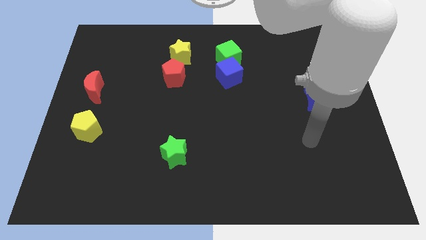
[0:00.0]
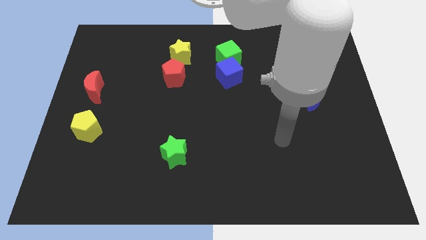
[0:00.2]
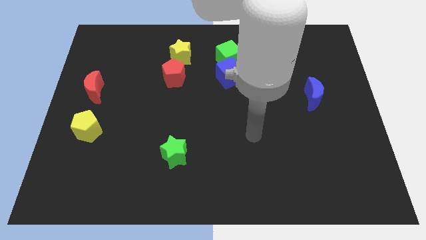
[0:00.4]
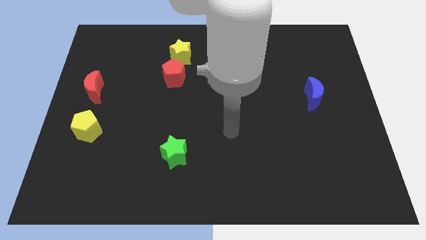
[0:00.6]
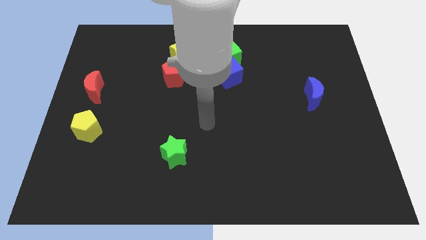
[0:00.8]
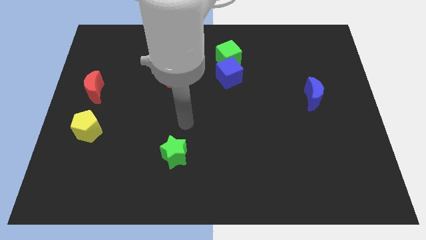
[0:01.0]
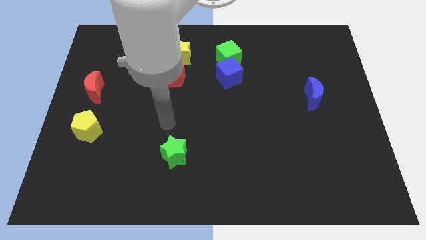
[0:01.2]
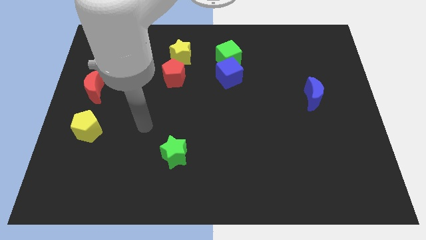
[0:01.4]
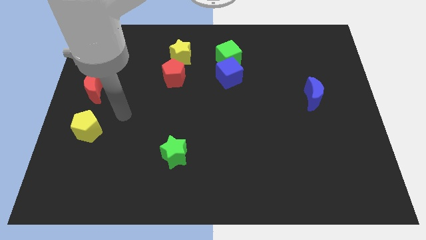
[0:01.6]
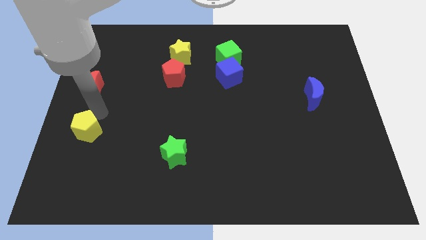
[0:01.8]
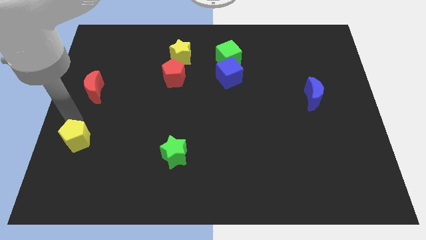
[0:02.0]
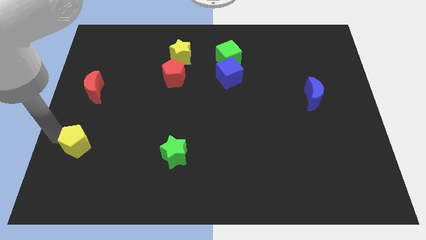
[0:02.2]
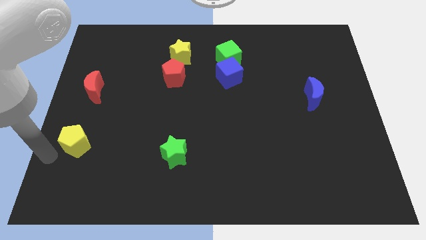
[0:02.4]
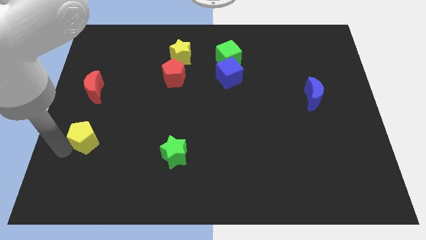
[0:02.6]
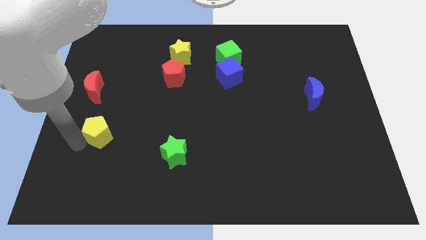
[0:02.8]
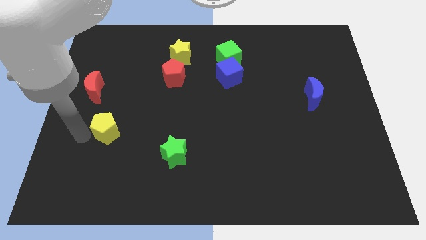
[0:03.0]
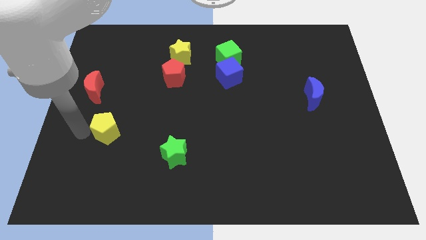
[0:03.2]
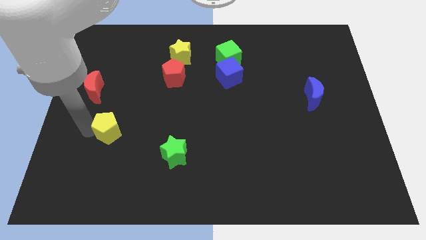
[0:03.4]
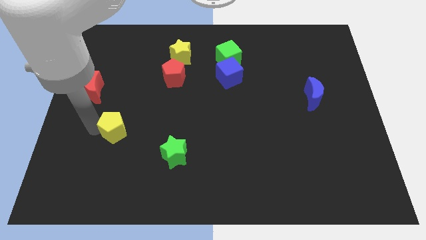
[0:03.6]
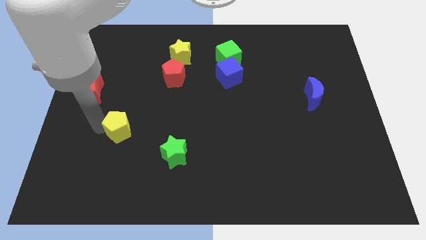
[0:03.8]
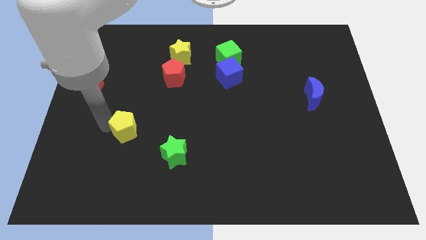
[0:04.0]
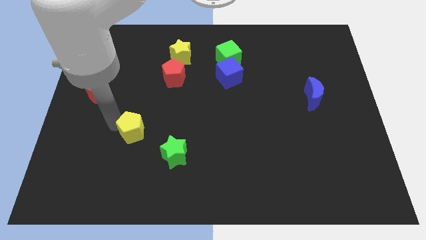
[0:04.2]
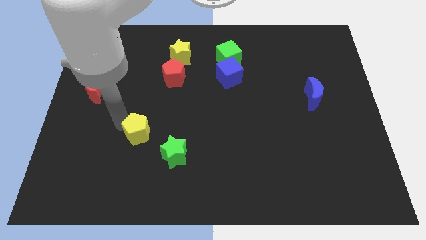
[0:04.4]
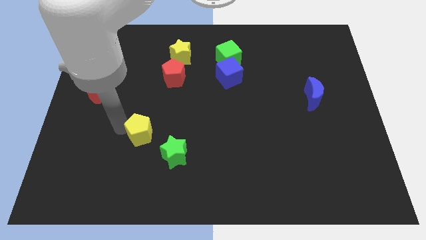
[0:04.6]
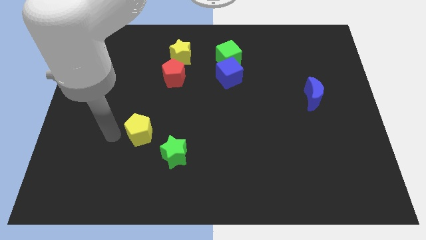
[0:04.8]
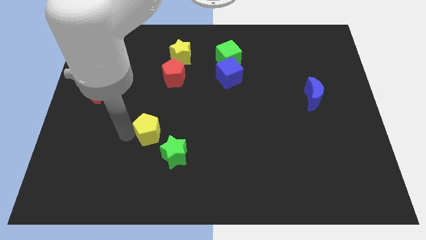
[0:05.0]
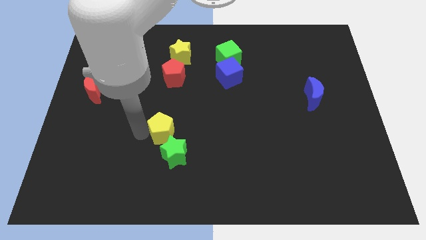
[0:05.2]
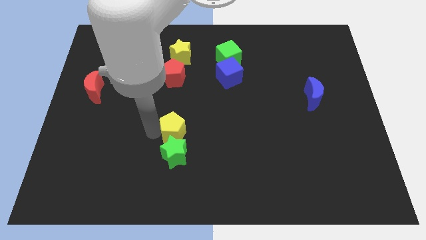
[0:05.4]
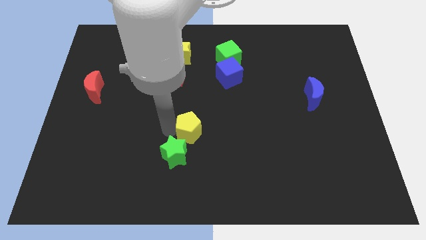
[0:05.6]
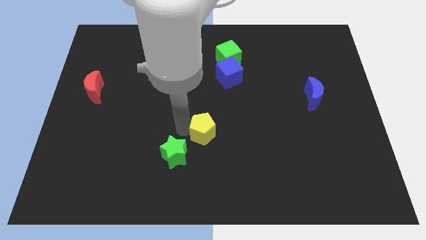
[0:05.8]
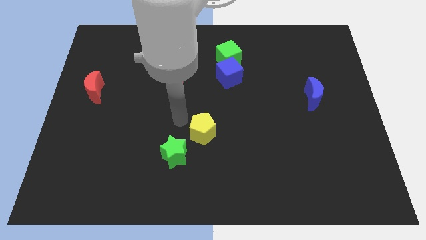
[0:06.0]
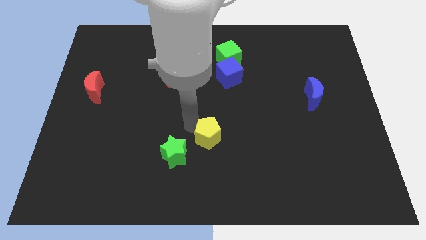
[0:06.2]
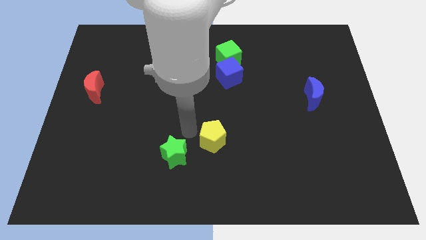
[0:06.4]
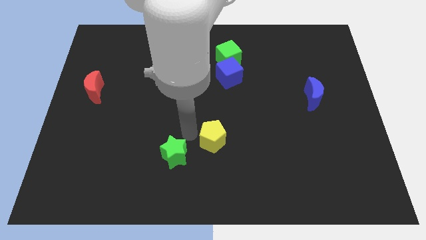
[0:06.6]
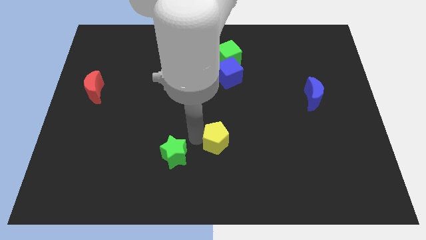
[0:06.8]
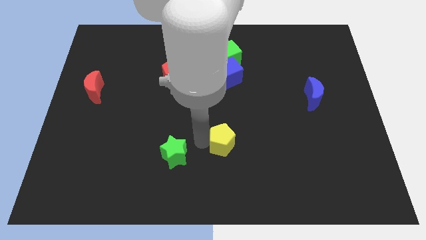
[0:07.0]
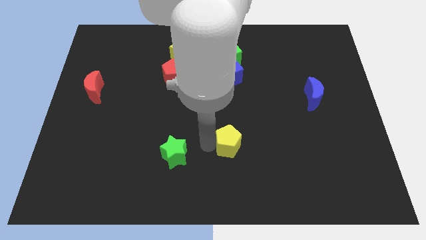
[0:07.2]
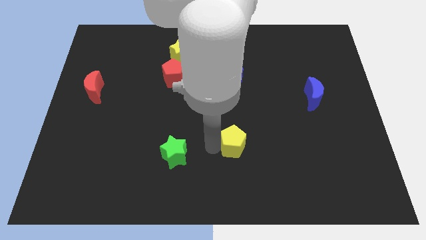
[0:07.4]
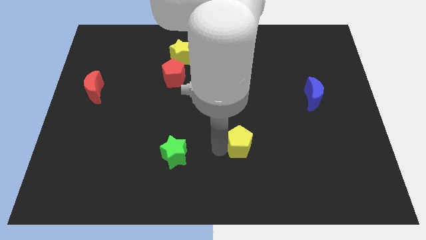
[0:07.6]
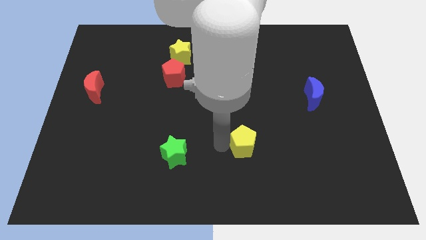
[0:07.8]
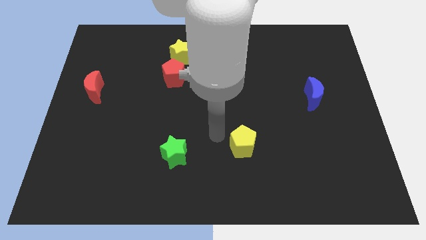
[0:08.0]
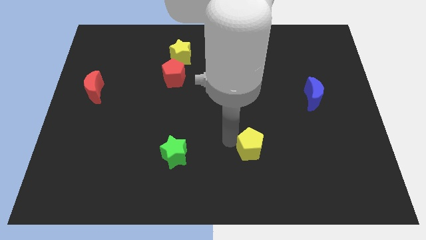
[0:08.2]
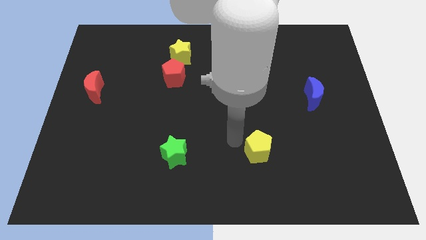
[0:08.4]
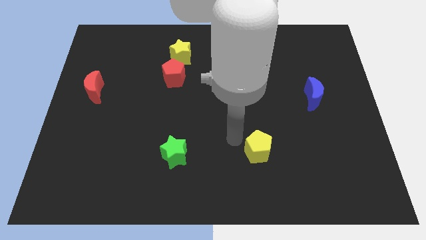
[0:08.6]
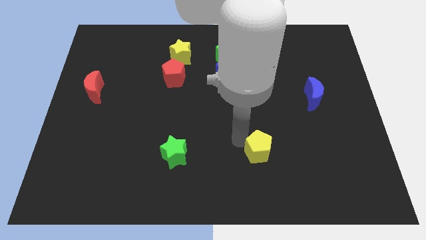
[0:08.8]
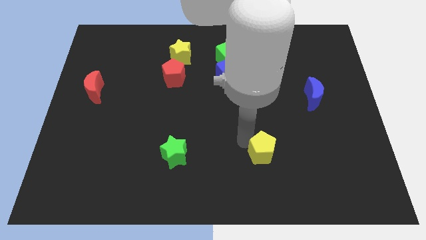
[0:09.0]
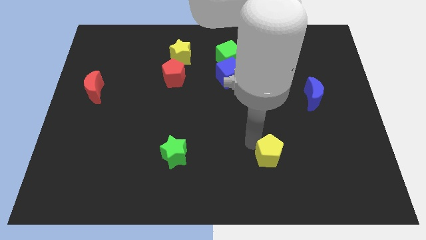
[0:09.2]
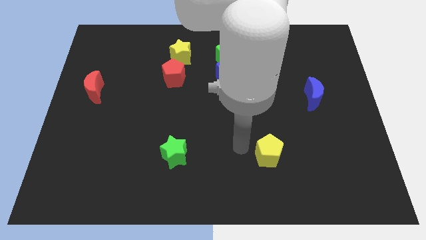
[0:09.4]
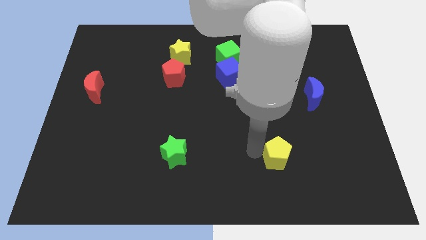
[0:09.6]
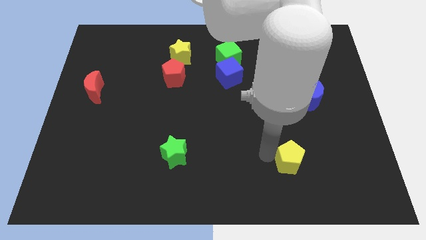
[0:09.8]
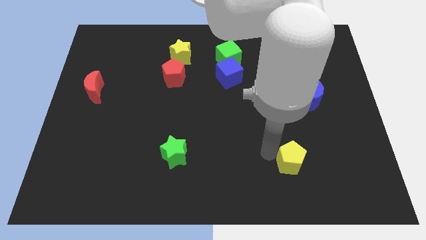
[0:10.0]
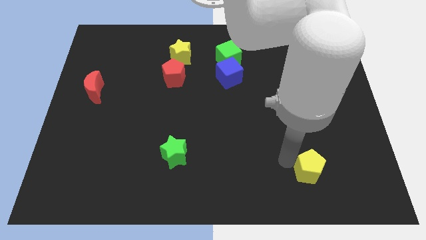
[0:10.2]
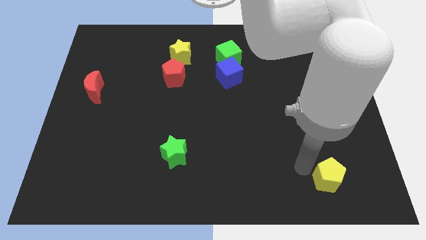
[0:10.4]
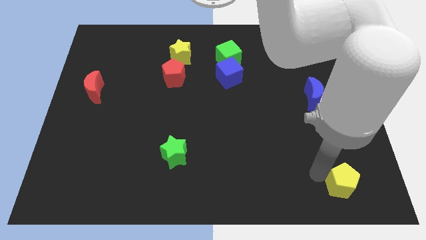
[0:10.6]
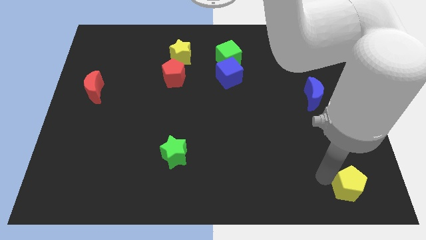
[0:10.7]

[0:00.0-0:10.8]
move the yellow pentagon to the bottom right corner

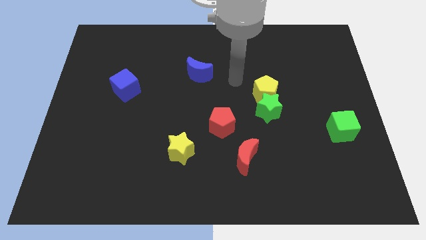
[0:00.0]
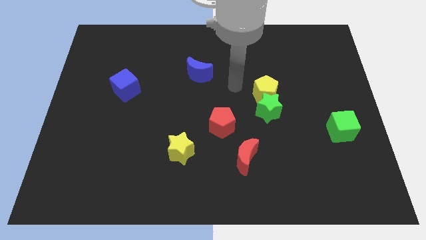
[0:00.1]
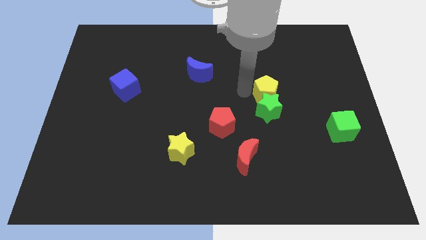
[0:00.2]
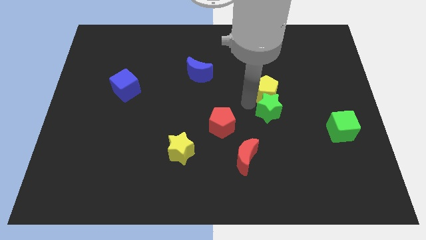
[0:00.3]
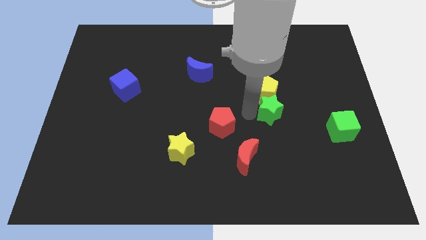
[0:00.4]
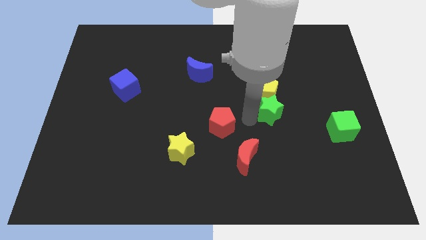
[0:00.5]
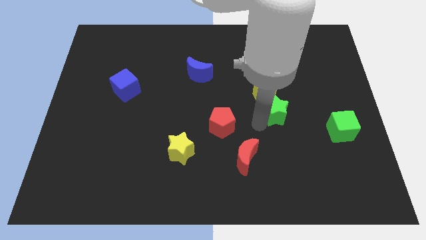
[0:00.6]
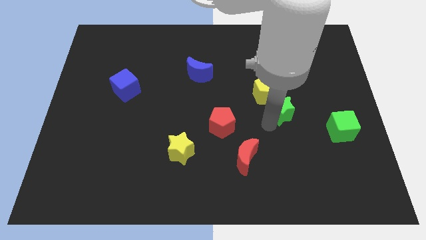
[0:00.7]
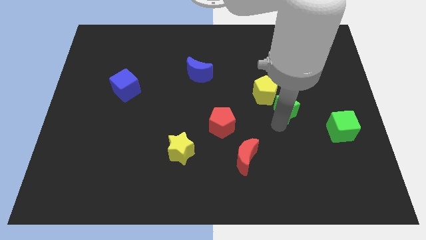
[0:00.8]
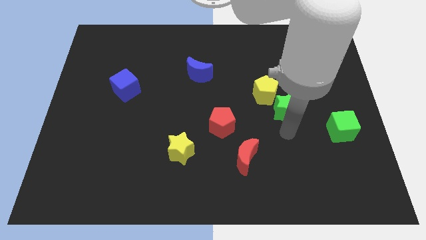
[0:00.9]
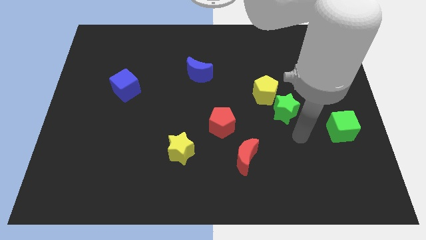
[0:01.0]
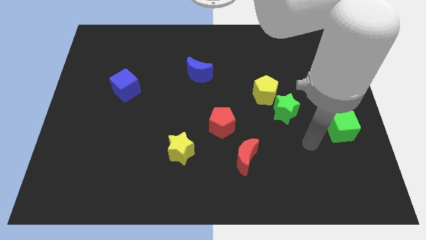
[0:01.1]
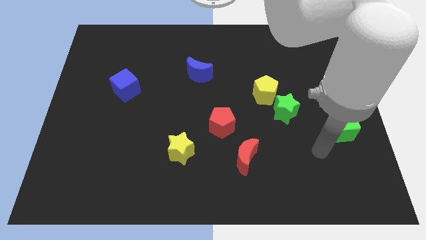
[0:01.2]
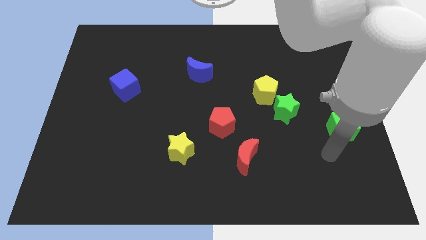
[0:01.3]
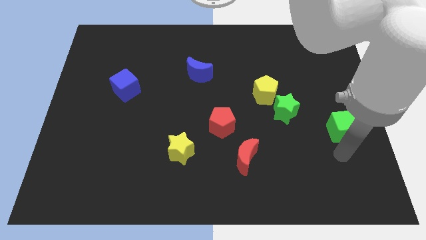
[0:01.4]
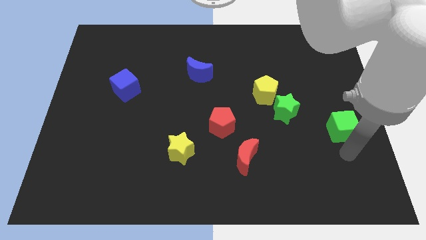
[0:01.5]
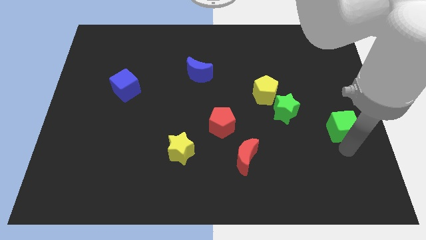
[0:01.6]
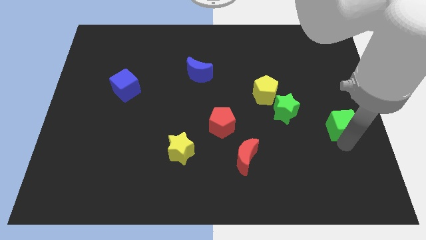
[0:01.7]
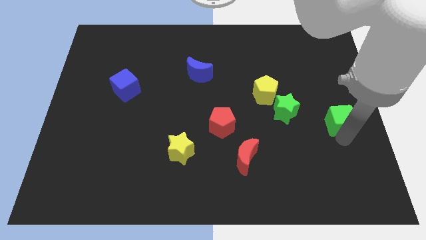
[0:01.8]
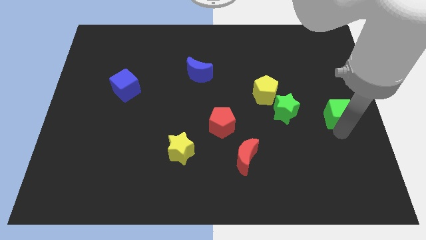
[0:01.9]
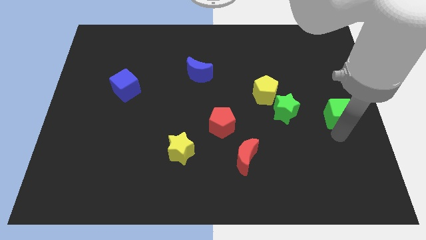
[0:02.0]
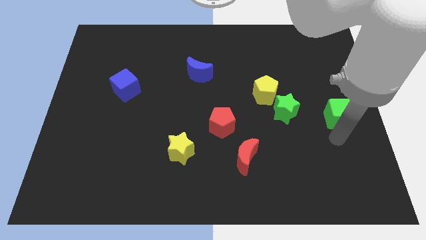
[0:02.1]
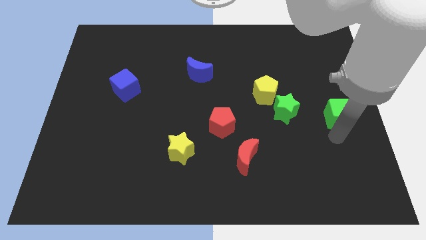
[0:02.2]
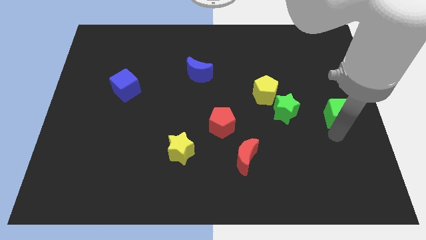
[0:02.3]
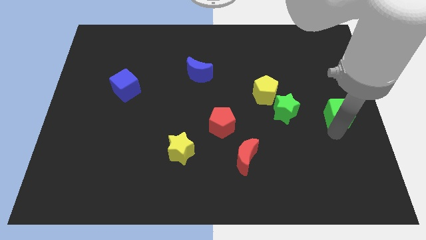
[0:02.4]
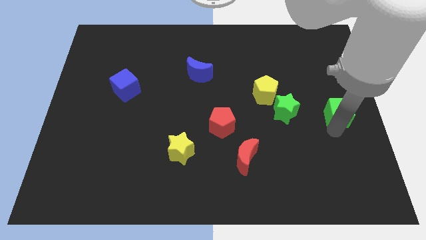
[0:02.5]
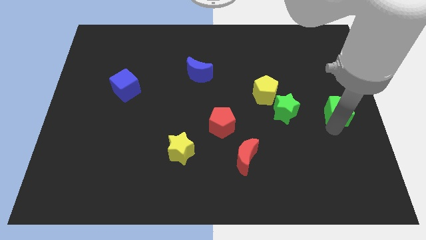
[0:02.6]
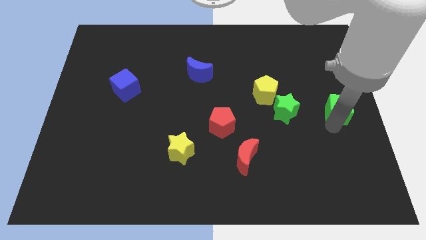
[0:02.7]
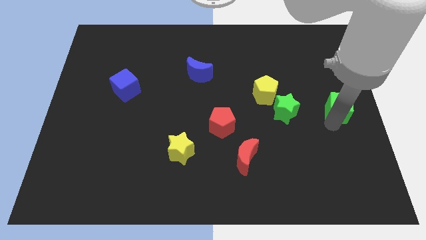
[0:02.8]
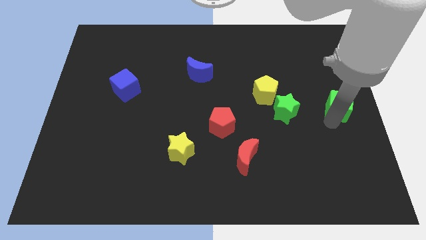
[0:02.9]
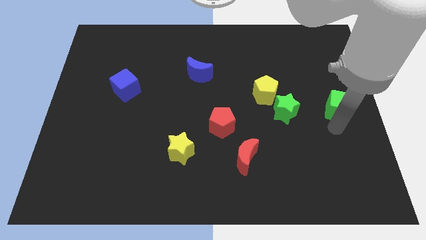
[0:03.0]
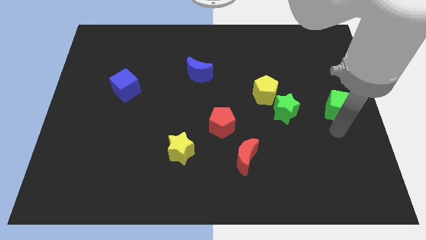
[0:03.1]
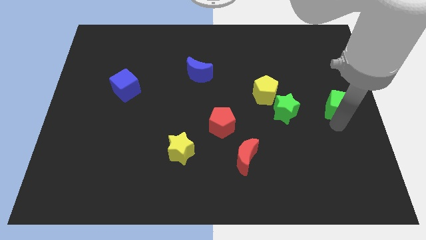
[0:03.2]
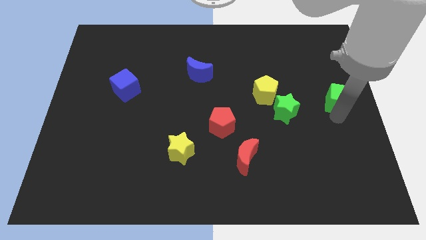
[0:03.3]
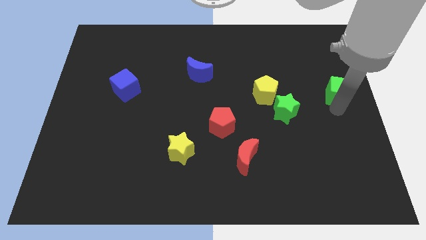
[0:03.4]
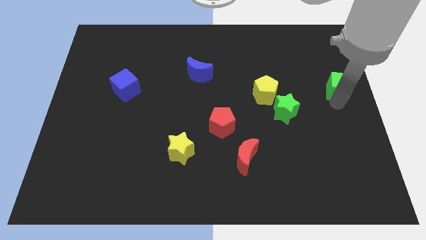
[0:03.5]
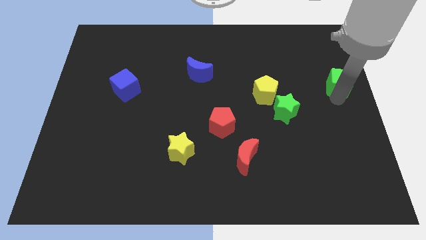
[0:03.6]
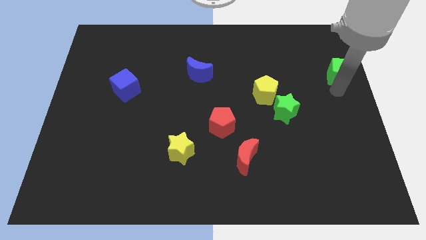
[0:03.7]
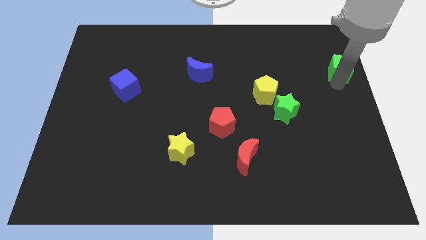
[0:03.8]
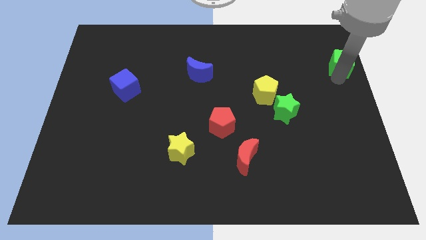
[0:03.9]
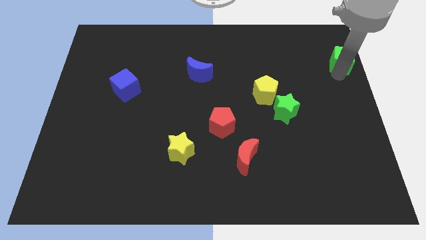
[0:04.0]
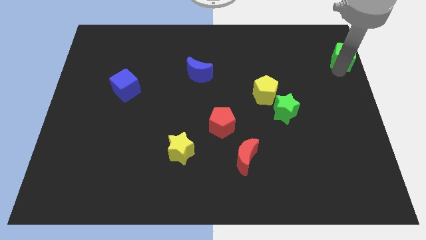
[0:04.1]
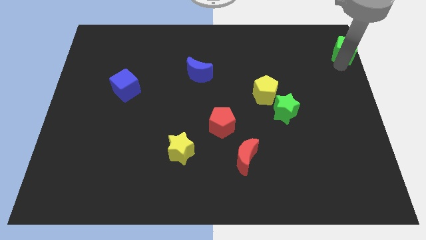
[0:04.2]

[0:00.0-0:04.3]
slide the green cube to the top right
